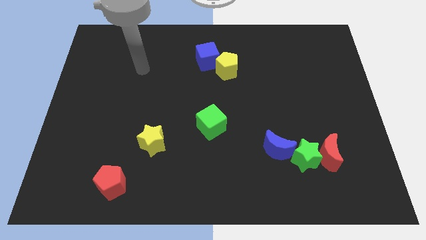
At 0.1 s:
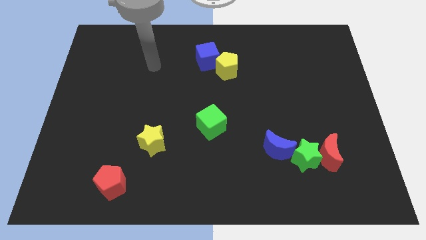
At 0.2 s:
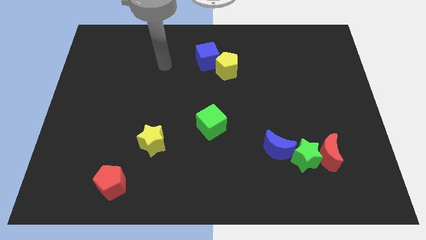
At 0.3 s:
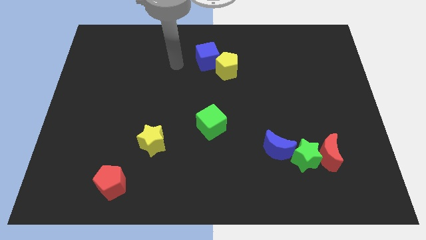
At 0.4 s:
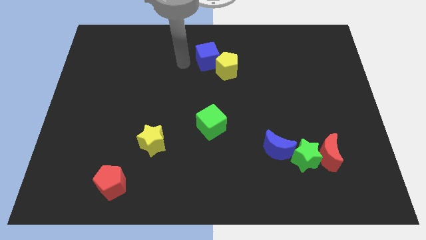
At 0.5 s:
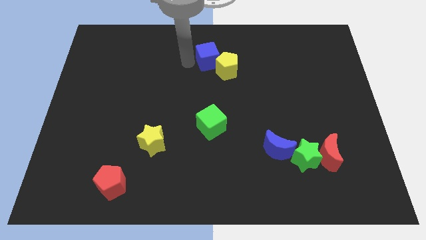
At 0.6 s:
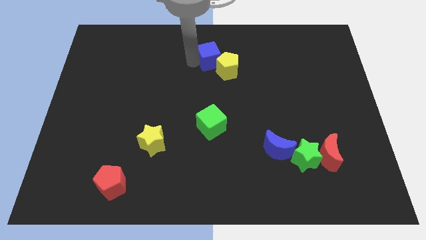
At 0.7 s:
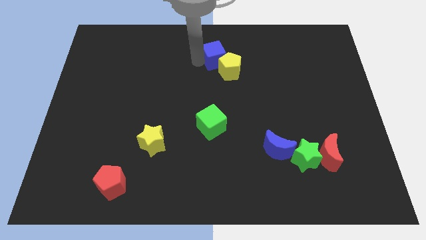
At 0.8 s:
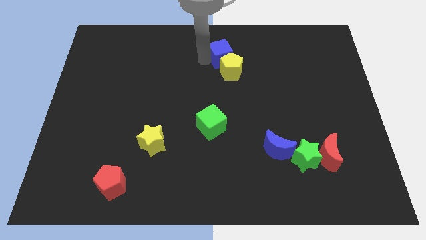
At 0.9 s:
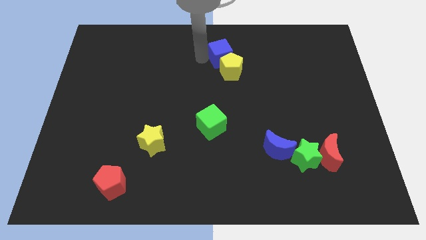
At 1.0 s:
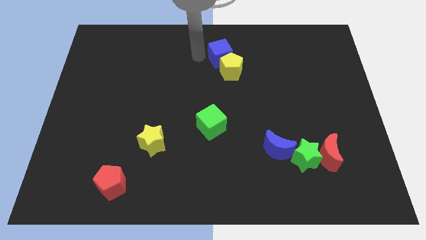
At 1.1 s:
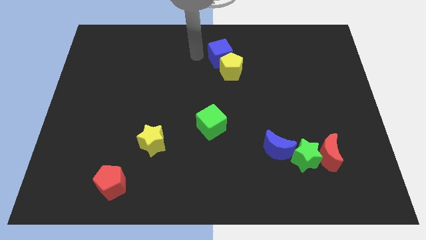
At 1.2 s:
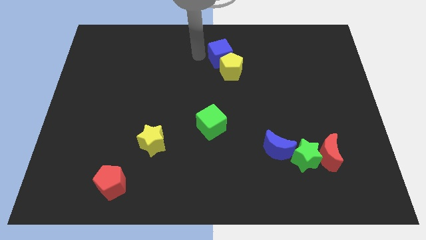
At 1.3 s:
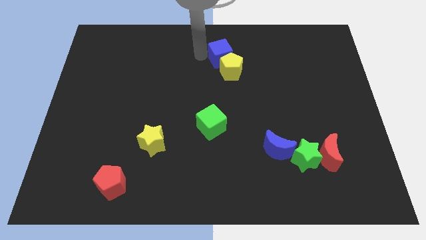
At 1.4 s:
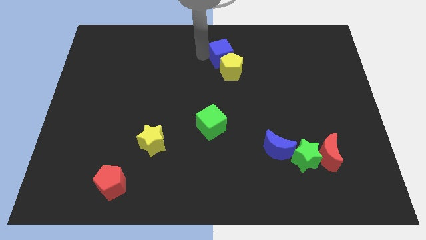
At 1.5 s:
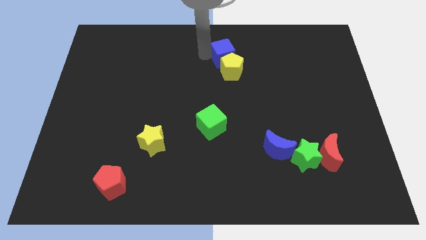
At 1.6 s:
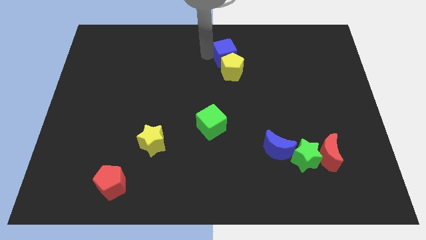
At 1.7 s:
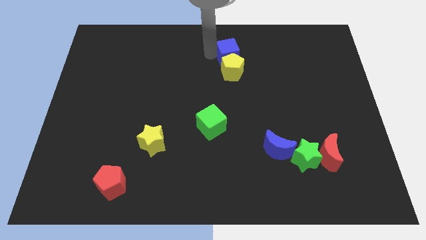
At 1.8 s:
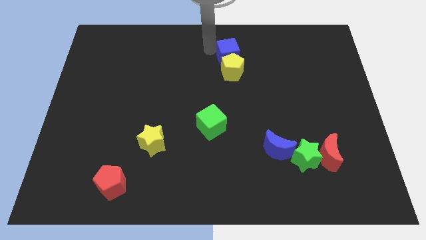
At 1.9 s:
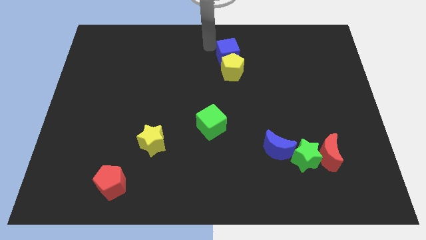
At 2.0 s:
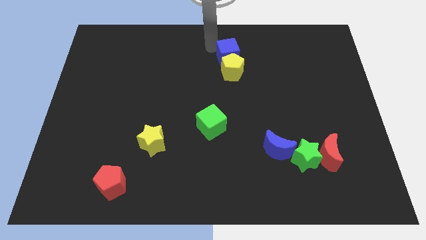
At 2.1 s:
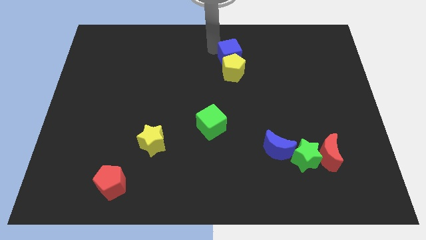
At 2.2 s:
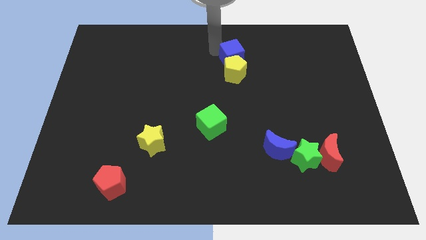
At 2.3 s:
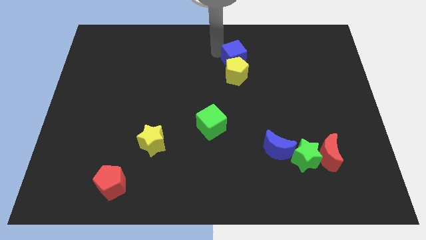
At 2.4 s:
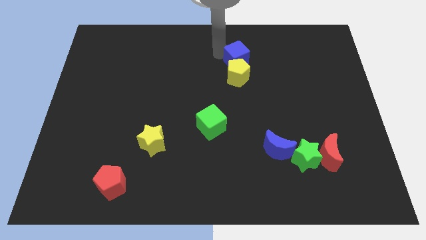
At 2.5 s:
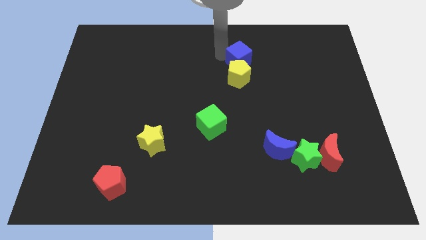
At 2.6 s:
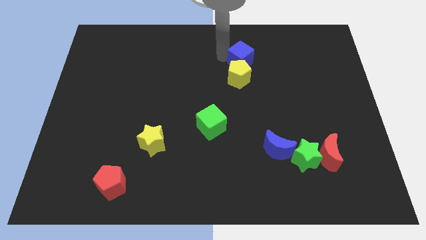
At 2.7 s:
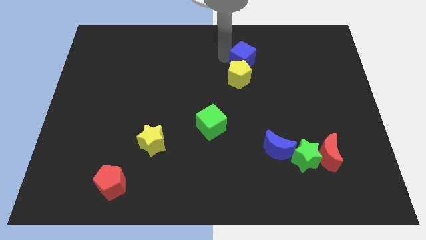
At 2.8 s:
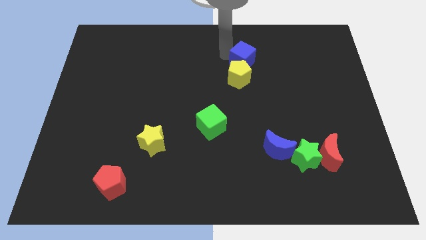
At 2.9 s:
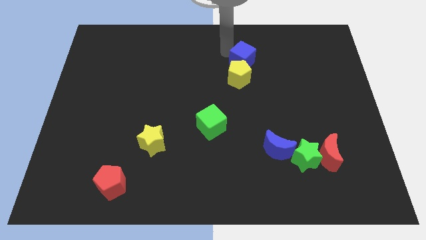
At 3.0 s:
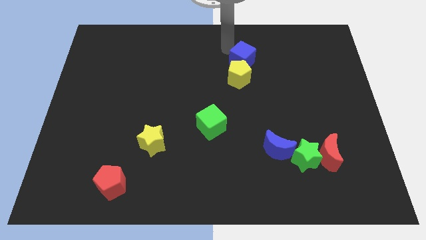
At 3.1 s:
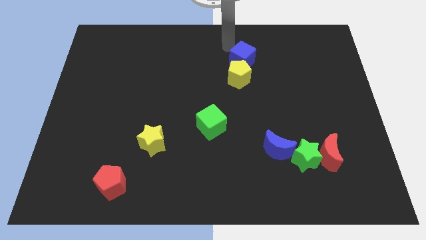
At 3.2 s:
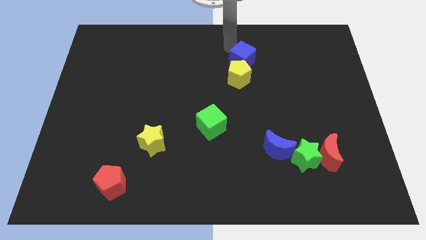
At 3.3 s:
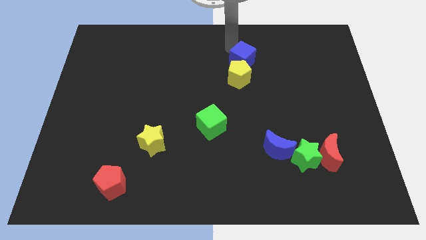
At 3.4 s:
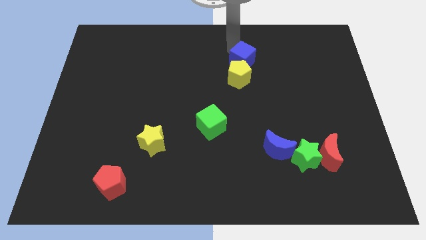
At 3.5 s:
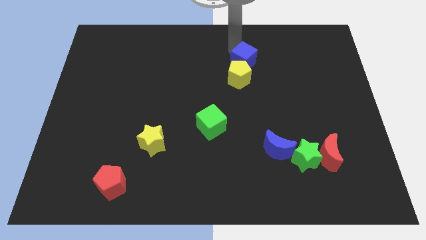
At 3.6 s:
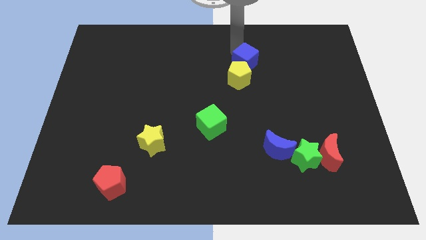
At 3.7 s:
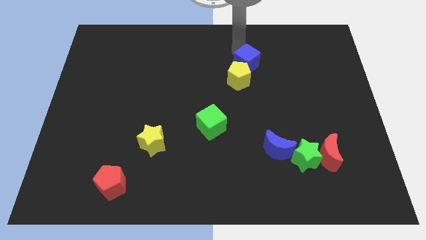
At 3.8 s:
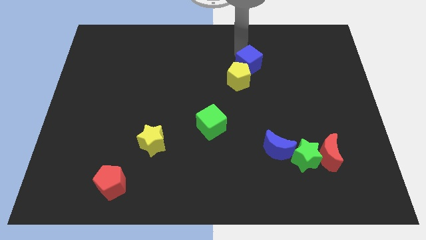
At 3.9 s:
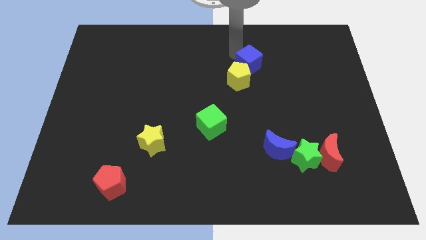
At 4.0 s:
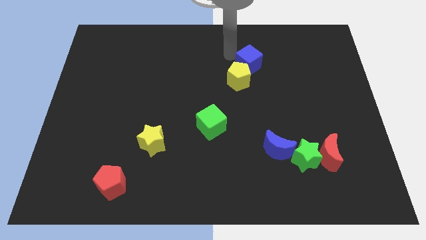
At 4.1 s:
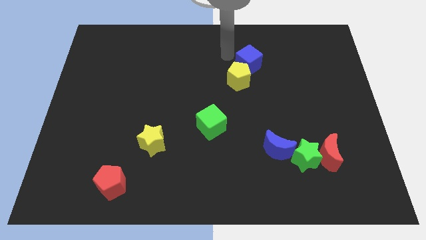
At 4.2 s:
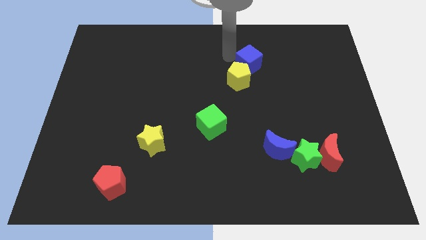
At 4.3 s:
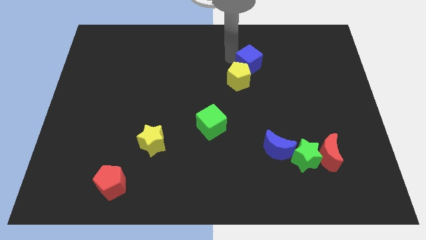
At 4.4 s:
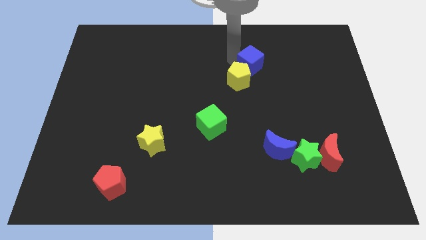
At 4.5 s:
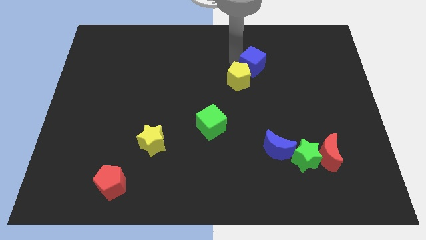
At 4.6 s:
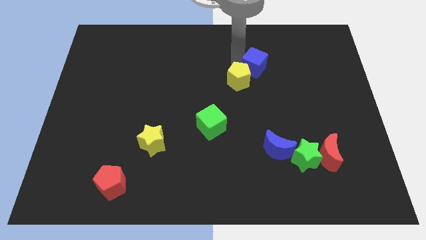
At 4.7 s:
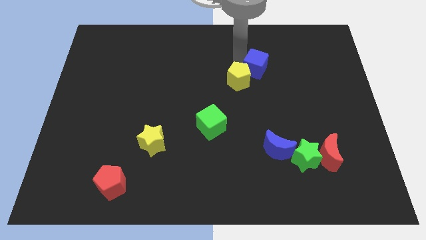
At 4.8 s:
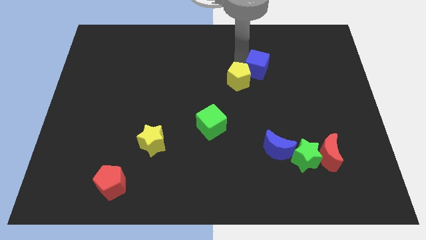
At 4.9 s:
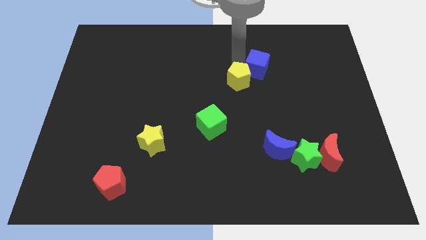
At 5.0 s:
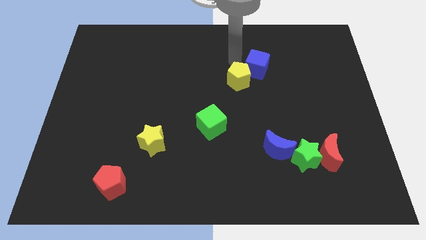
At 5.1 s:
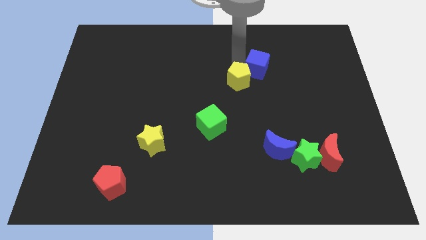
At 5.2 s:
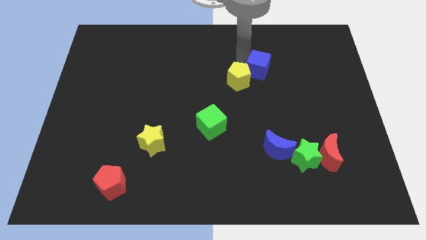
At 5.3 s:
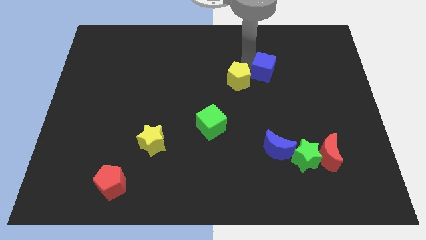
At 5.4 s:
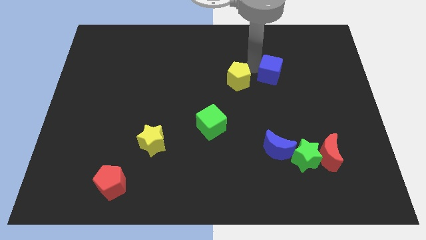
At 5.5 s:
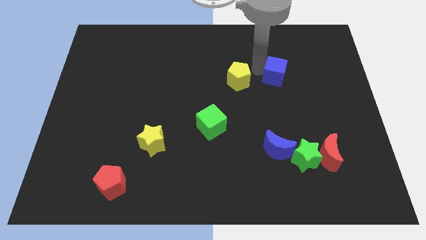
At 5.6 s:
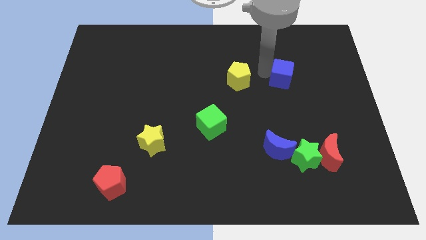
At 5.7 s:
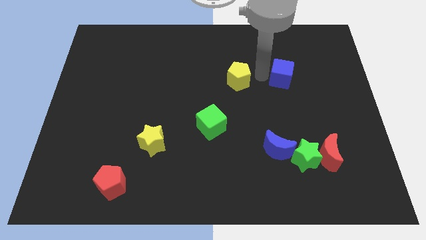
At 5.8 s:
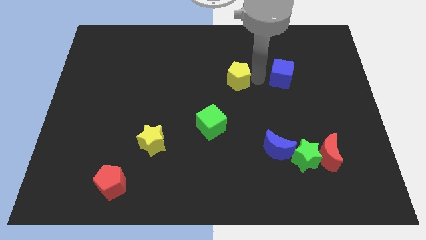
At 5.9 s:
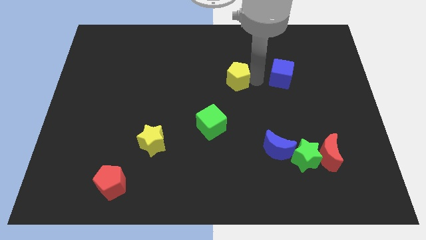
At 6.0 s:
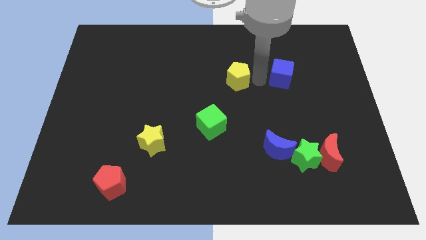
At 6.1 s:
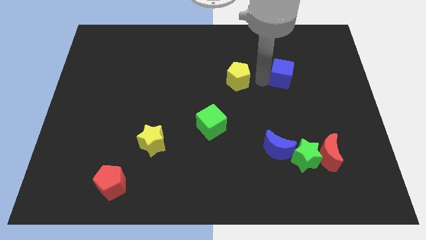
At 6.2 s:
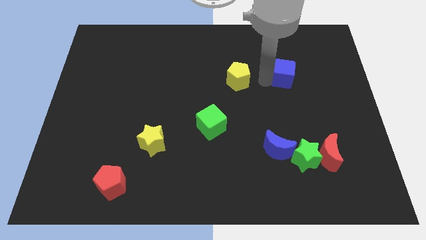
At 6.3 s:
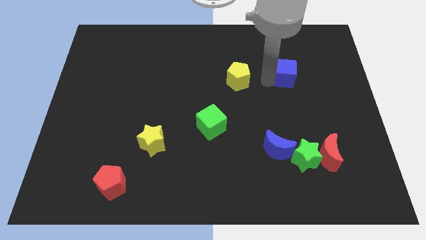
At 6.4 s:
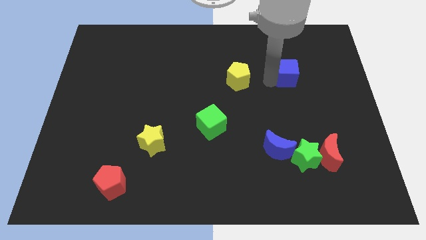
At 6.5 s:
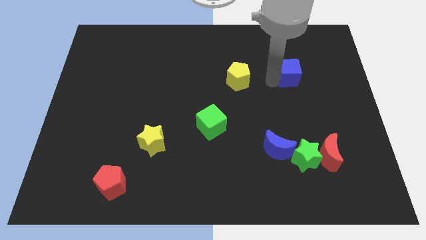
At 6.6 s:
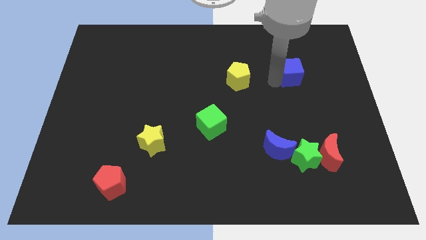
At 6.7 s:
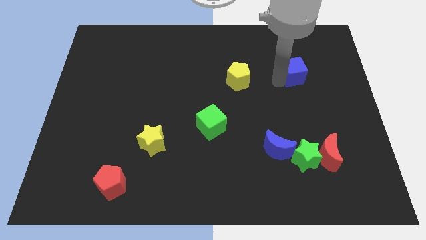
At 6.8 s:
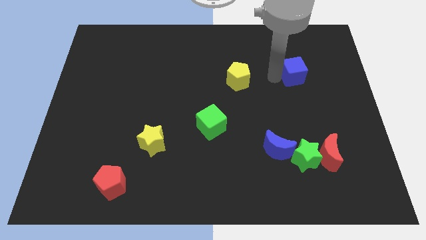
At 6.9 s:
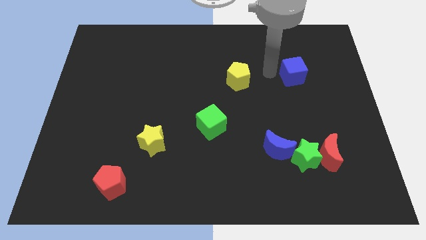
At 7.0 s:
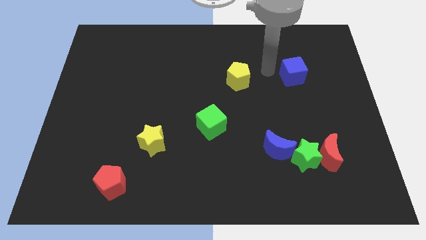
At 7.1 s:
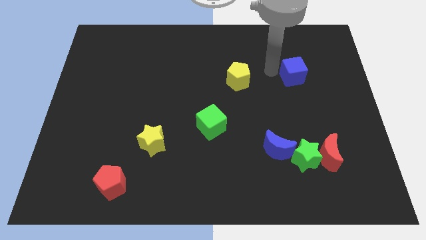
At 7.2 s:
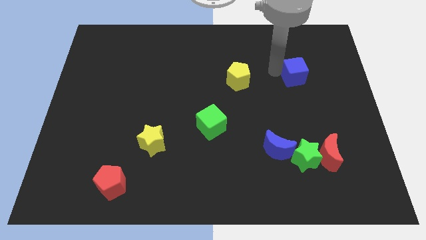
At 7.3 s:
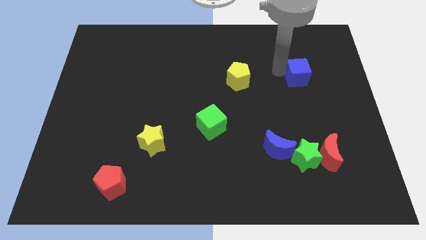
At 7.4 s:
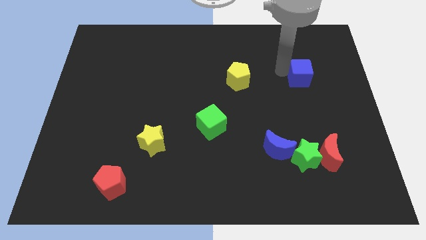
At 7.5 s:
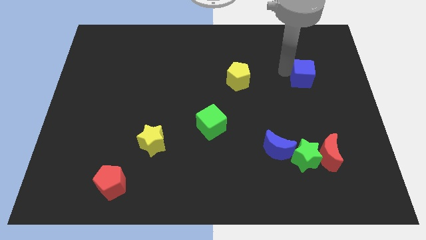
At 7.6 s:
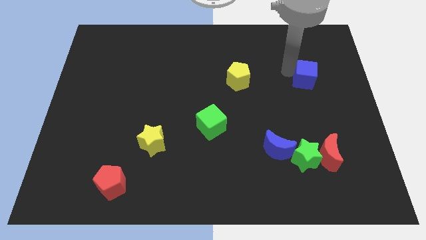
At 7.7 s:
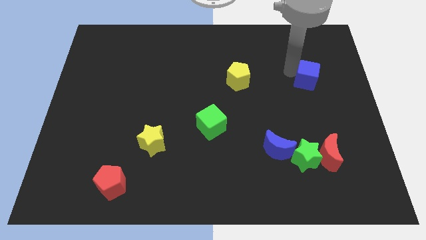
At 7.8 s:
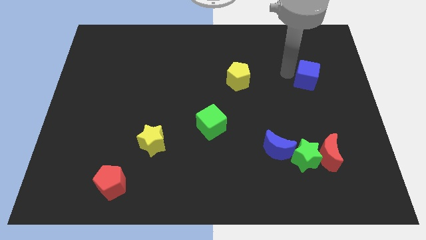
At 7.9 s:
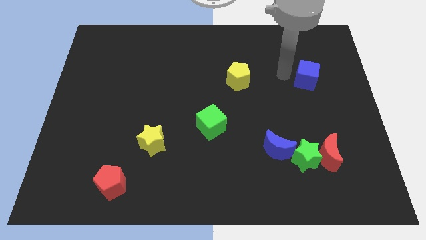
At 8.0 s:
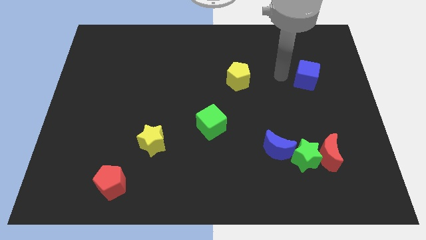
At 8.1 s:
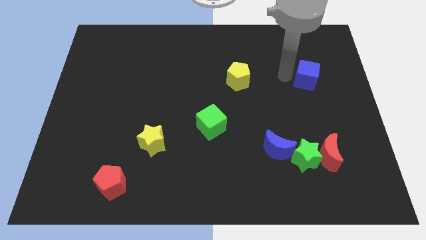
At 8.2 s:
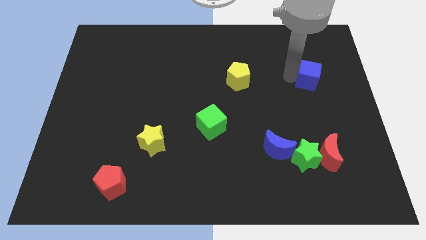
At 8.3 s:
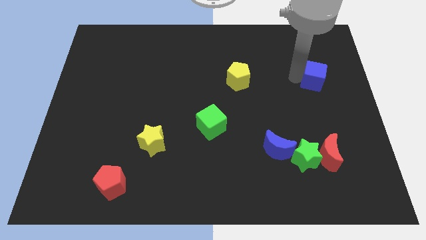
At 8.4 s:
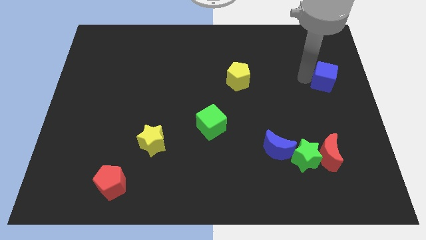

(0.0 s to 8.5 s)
push the blue cube to the right side of the board
